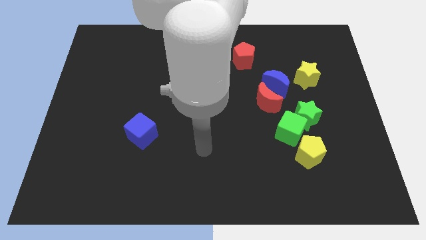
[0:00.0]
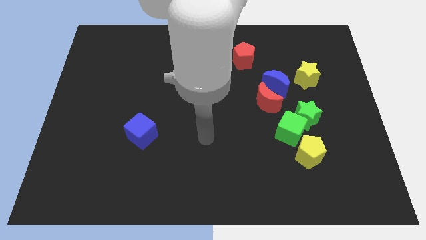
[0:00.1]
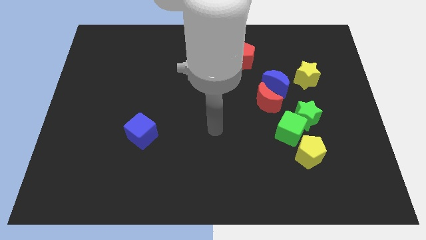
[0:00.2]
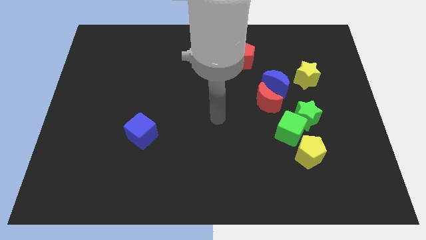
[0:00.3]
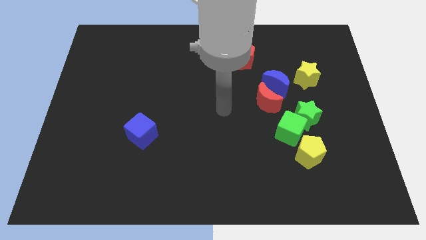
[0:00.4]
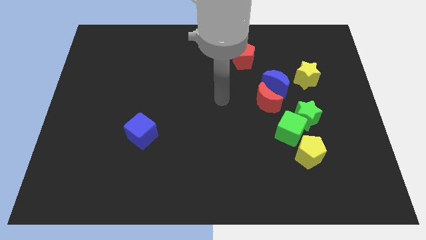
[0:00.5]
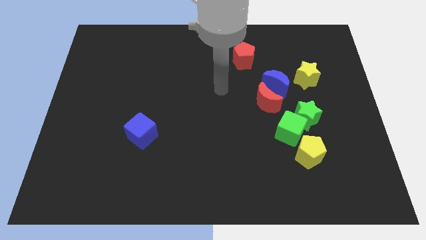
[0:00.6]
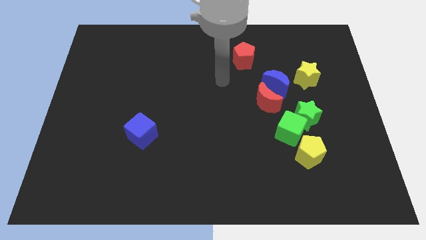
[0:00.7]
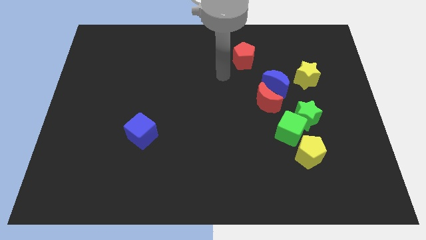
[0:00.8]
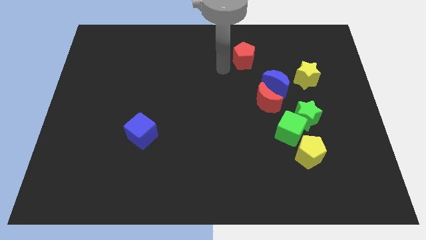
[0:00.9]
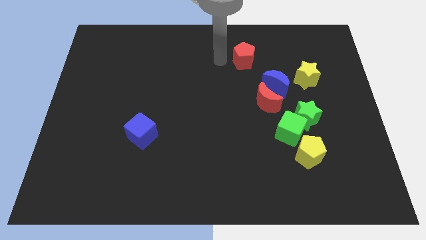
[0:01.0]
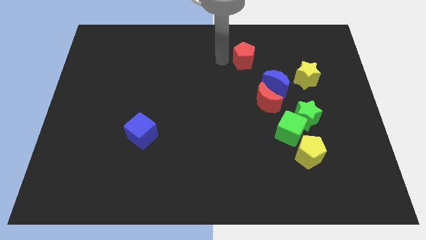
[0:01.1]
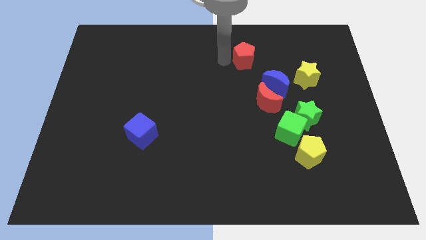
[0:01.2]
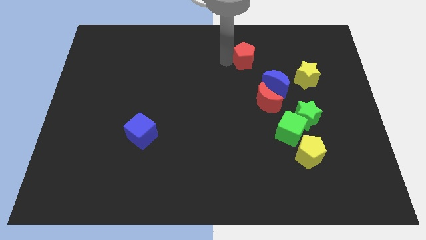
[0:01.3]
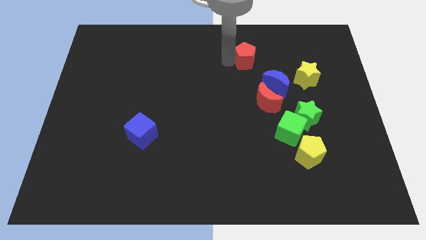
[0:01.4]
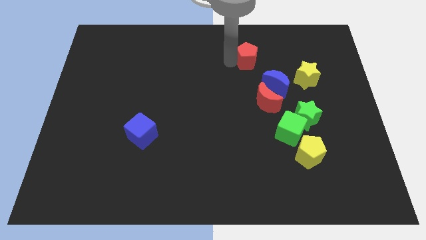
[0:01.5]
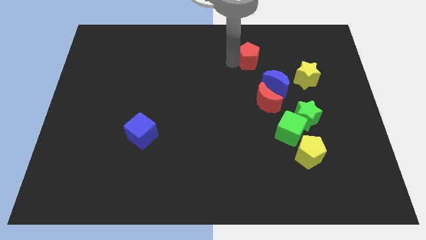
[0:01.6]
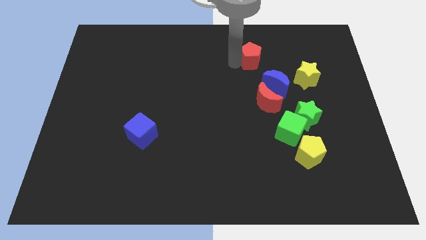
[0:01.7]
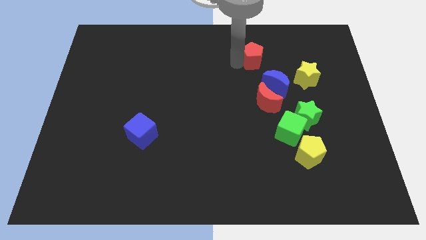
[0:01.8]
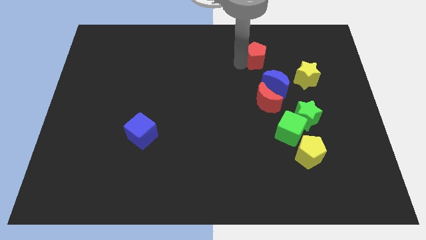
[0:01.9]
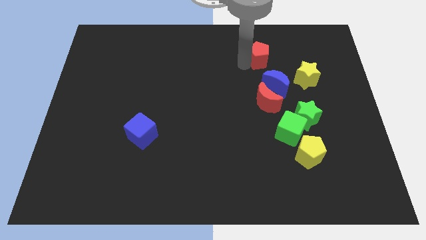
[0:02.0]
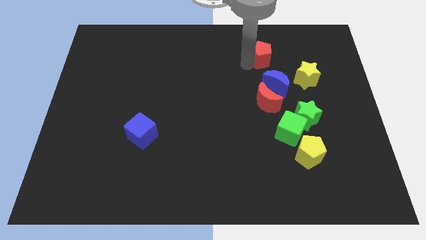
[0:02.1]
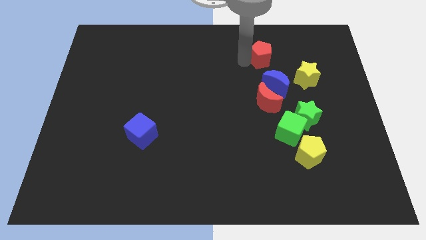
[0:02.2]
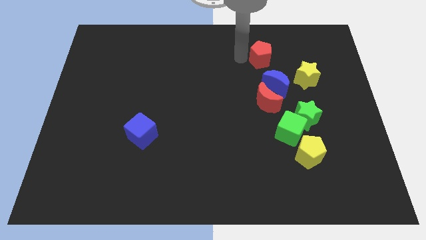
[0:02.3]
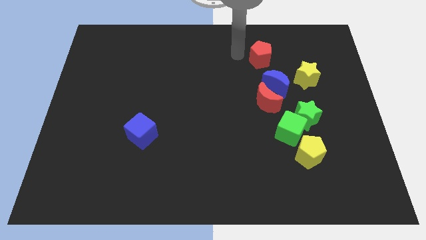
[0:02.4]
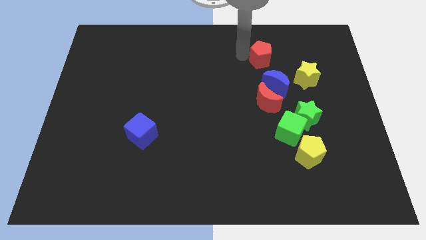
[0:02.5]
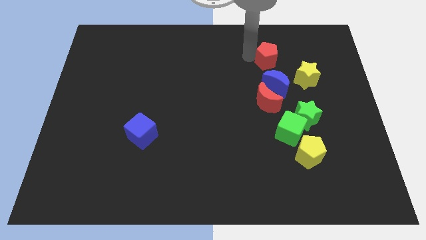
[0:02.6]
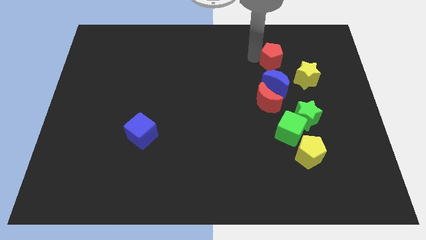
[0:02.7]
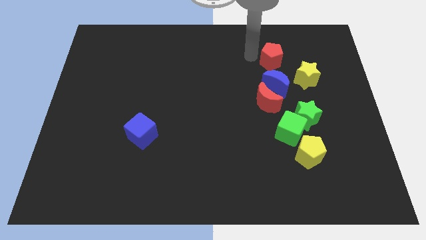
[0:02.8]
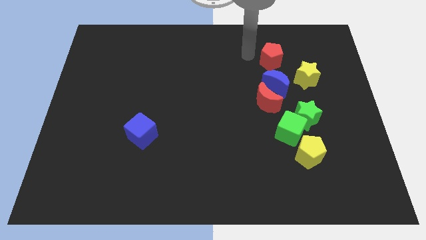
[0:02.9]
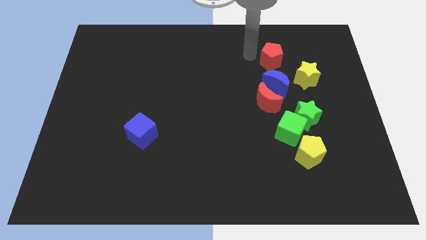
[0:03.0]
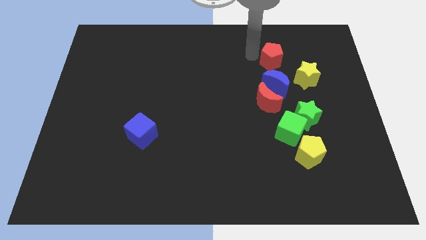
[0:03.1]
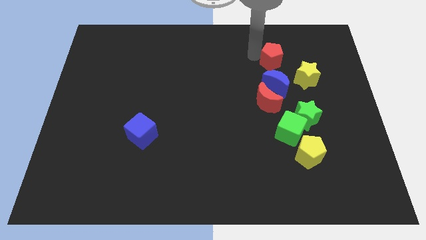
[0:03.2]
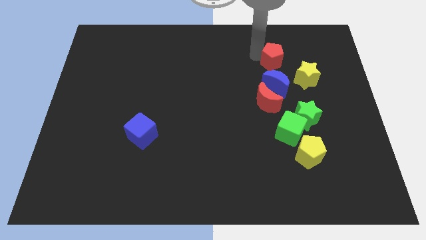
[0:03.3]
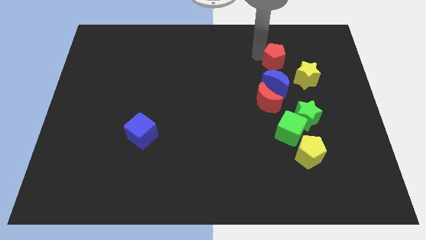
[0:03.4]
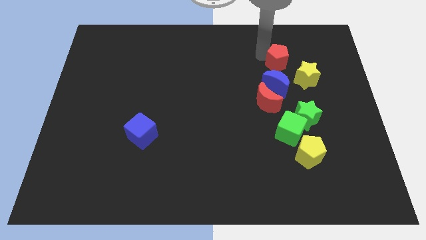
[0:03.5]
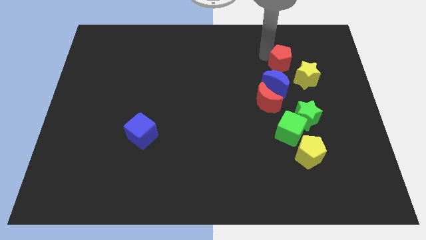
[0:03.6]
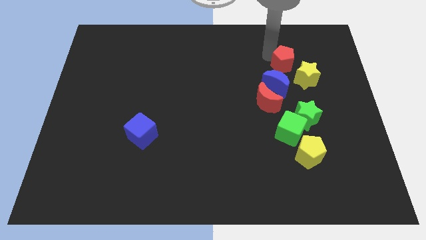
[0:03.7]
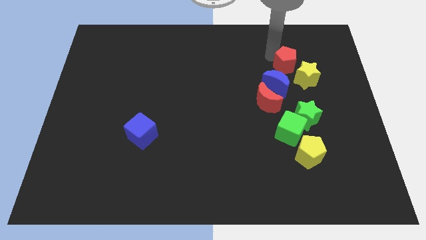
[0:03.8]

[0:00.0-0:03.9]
move the red pentagon downwards and right a little

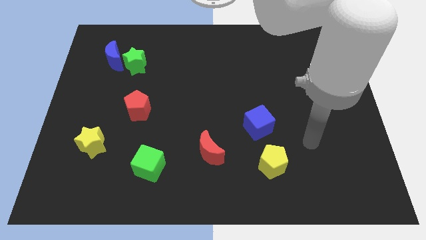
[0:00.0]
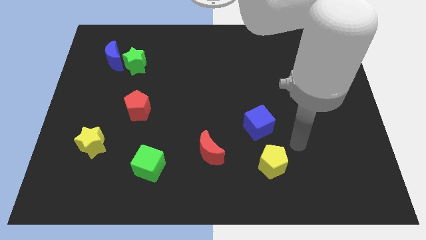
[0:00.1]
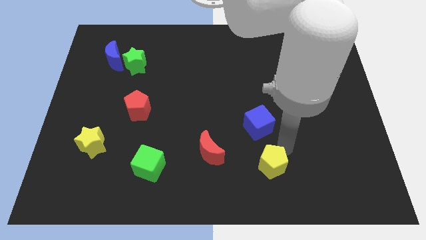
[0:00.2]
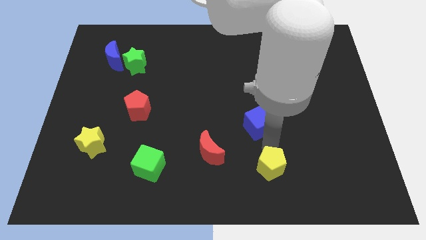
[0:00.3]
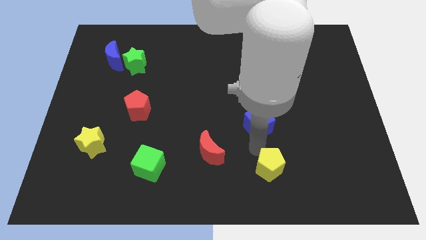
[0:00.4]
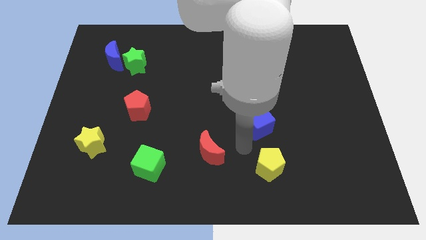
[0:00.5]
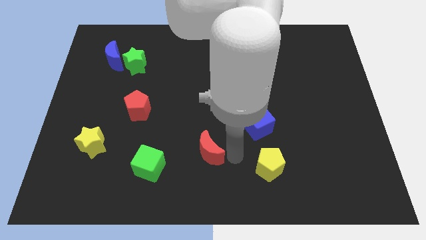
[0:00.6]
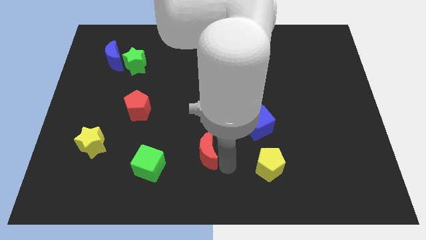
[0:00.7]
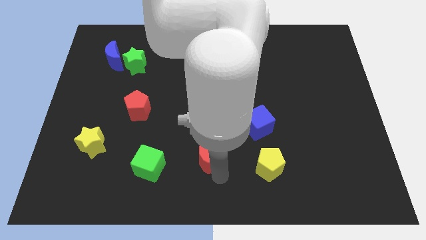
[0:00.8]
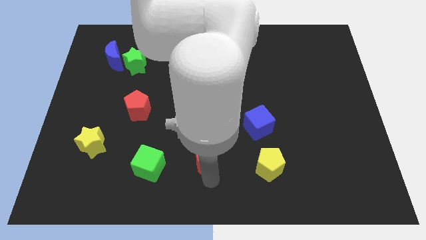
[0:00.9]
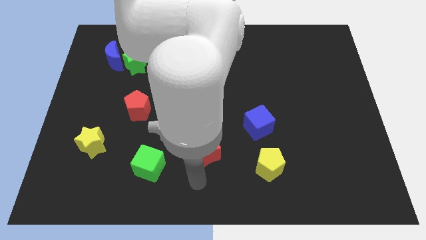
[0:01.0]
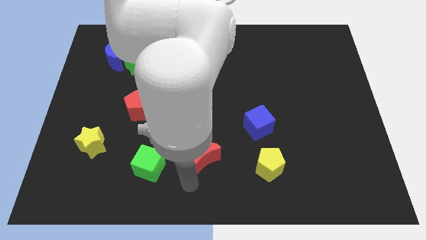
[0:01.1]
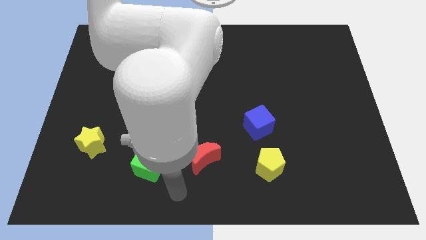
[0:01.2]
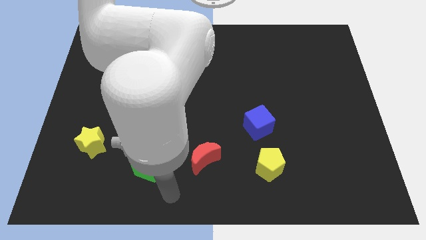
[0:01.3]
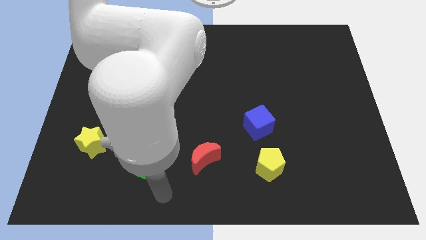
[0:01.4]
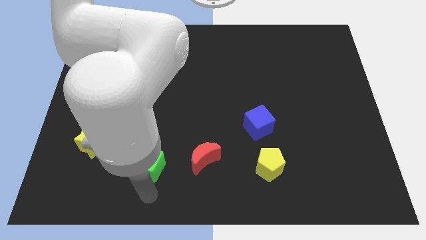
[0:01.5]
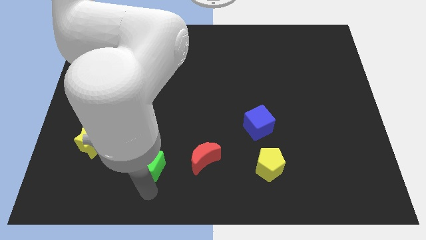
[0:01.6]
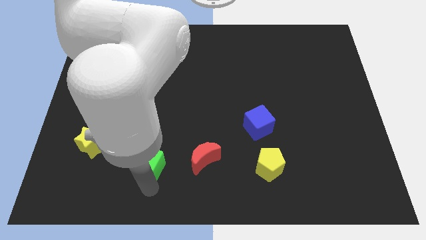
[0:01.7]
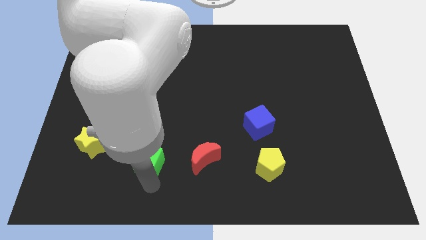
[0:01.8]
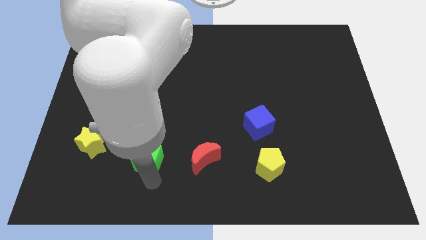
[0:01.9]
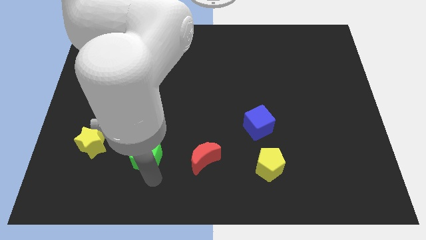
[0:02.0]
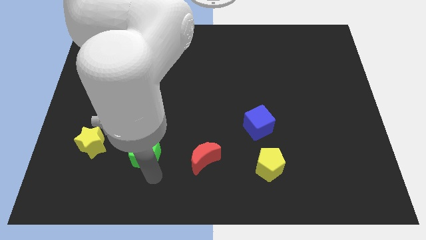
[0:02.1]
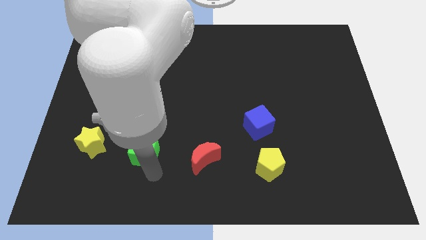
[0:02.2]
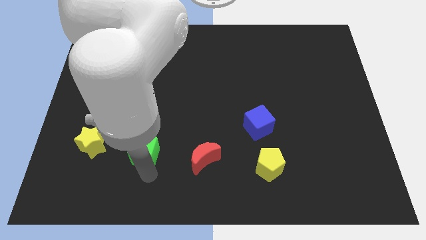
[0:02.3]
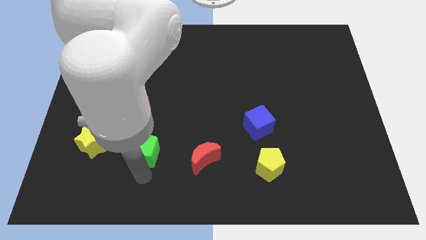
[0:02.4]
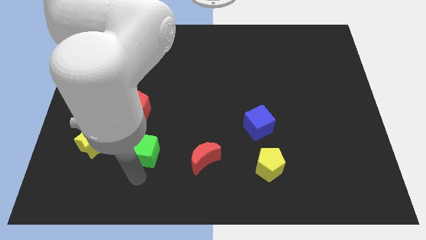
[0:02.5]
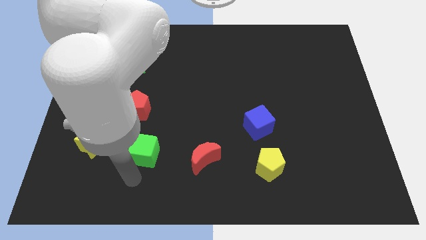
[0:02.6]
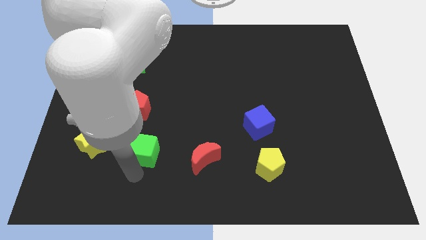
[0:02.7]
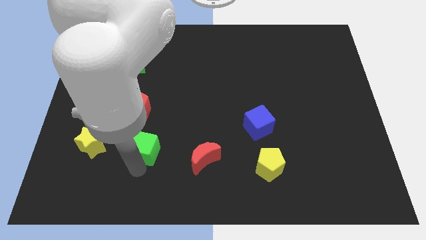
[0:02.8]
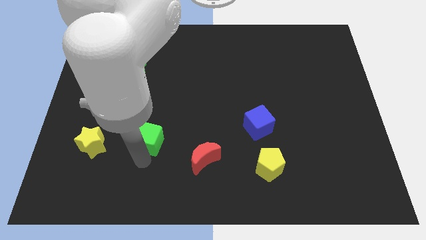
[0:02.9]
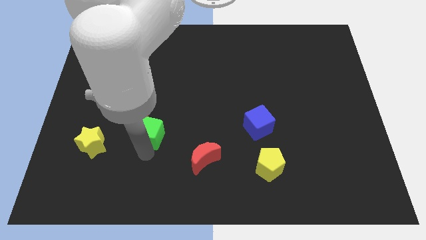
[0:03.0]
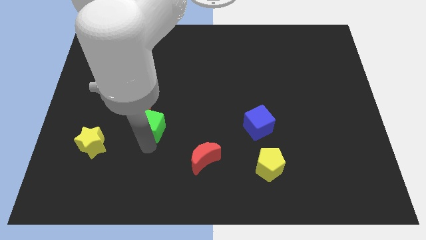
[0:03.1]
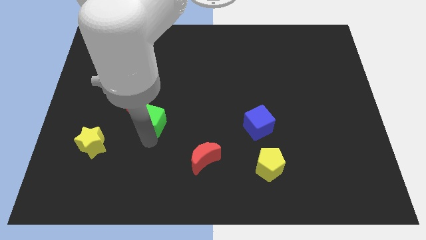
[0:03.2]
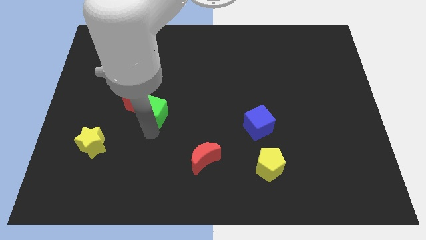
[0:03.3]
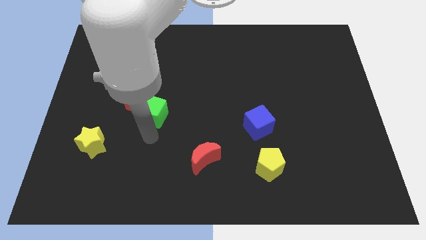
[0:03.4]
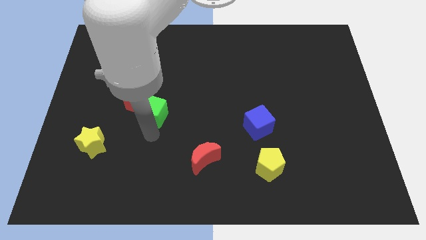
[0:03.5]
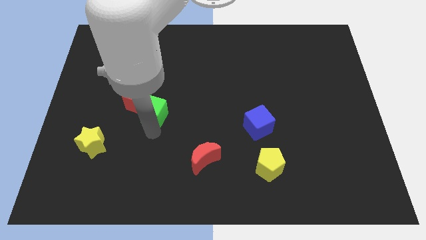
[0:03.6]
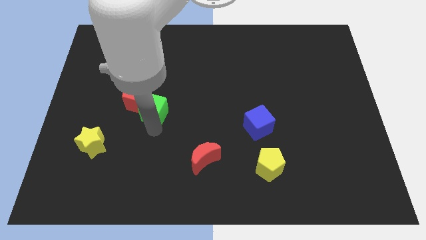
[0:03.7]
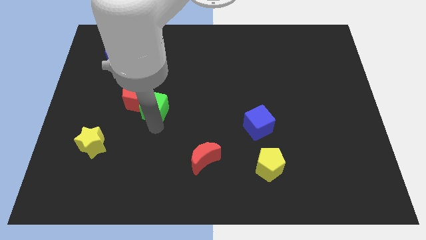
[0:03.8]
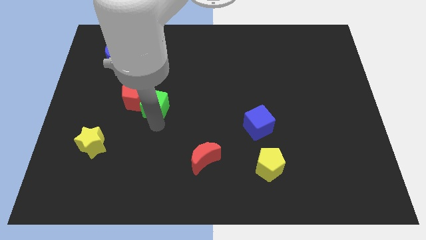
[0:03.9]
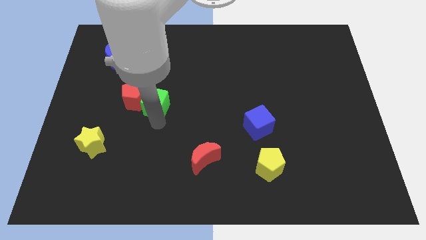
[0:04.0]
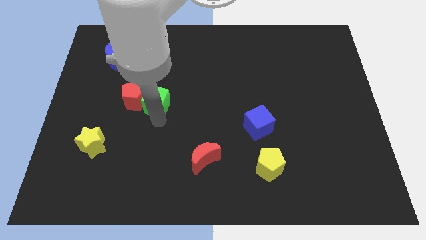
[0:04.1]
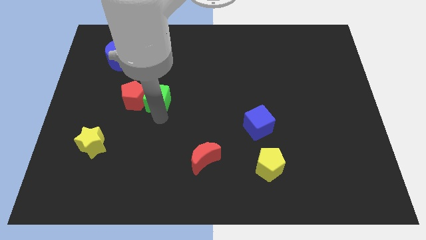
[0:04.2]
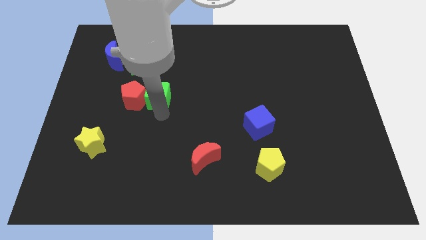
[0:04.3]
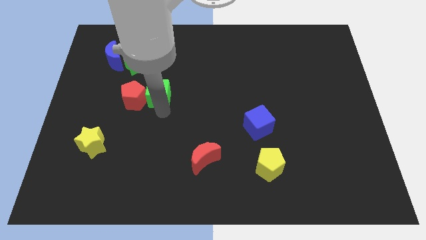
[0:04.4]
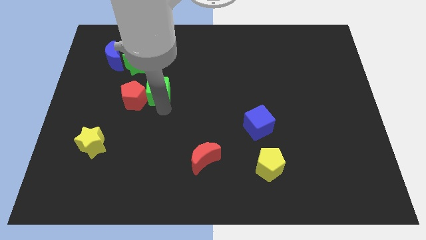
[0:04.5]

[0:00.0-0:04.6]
slide the green cube upwards
